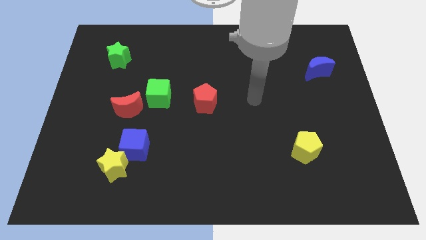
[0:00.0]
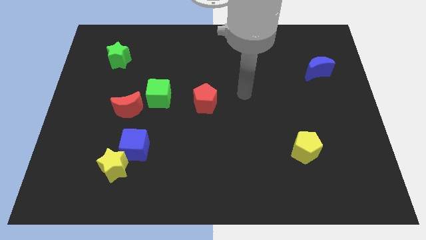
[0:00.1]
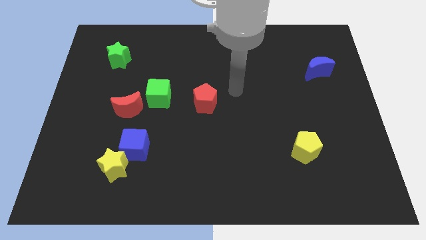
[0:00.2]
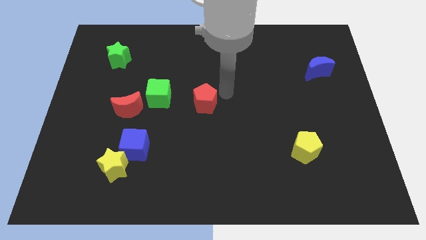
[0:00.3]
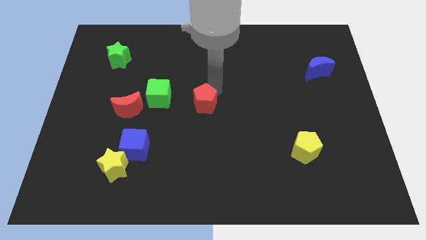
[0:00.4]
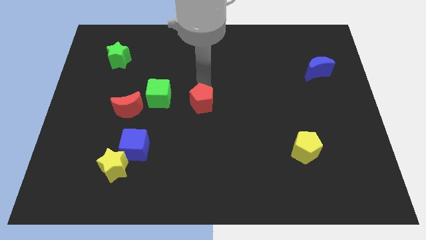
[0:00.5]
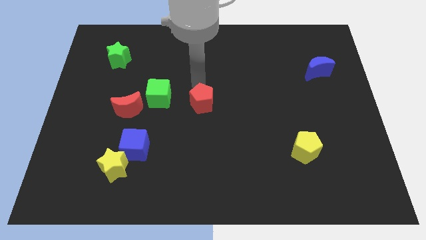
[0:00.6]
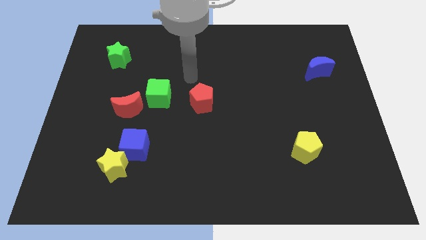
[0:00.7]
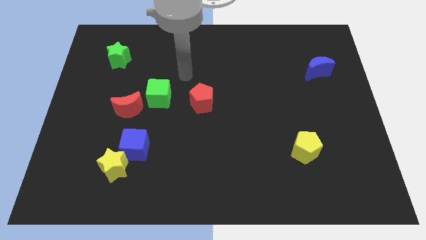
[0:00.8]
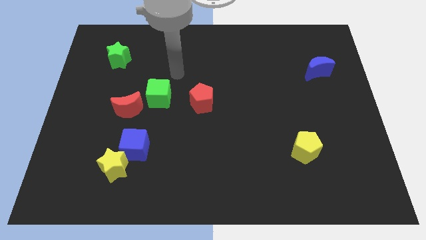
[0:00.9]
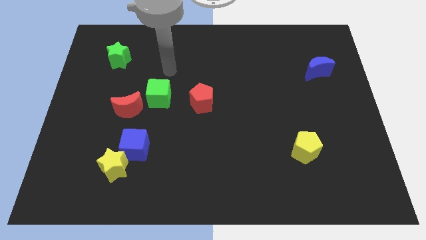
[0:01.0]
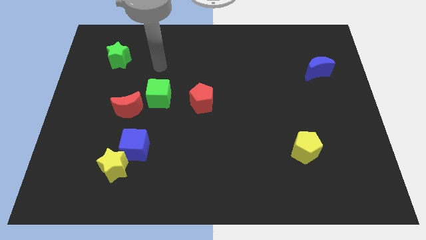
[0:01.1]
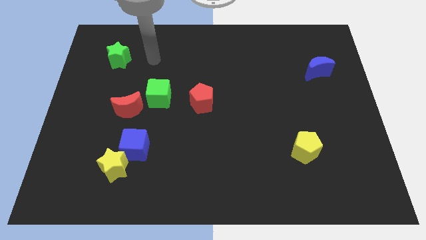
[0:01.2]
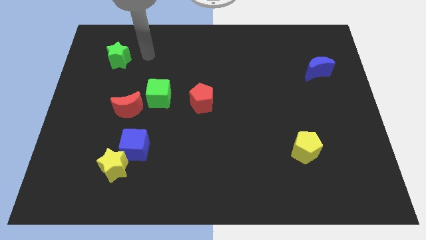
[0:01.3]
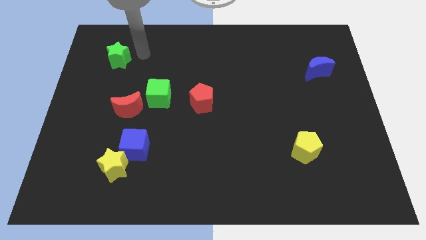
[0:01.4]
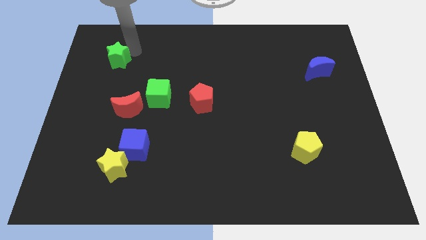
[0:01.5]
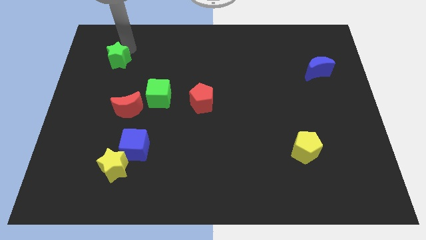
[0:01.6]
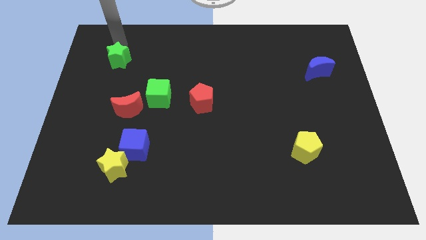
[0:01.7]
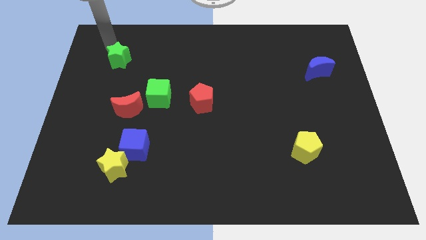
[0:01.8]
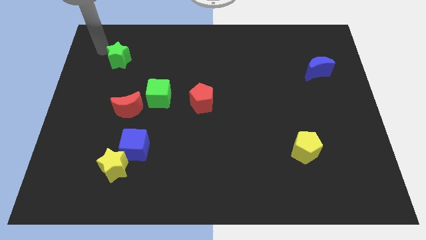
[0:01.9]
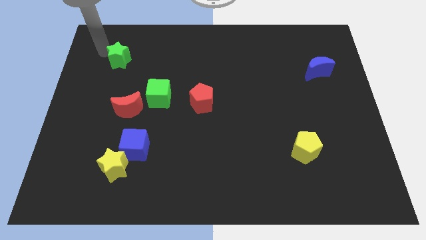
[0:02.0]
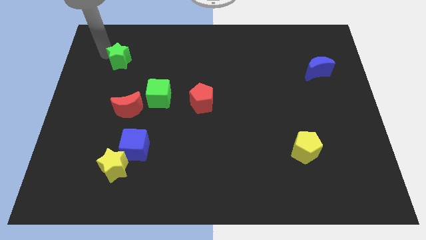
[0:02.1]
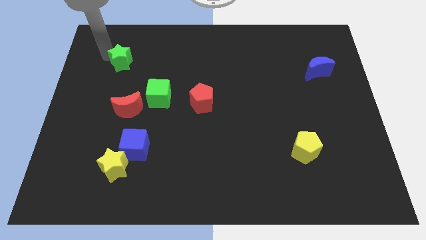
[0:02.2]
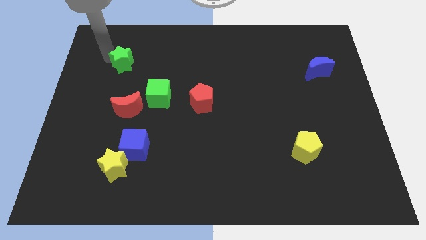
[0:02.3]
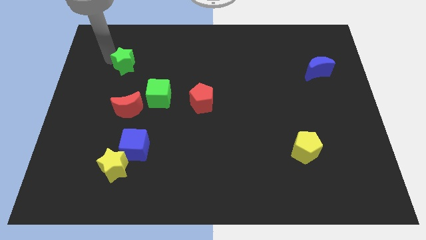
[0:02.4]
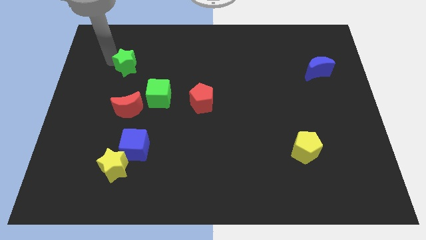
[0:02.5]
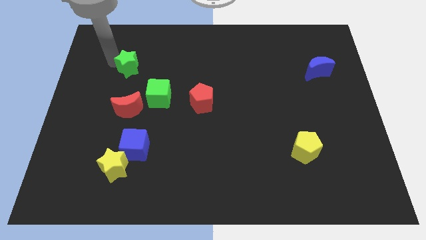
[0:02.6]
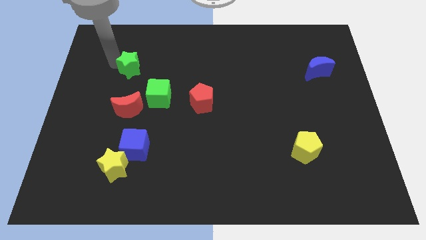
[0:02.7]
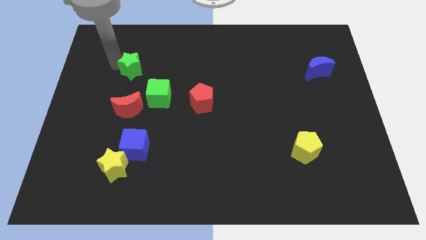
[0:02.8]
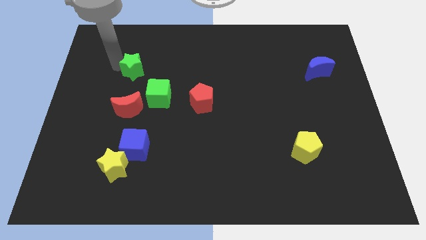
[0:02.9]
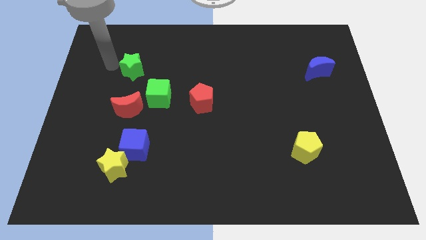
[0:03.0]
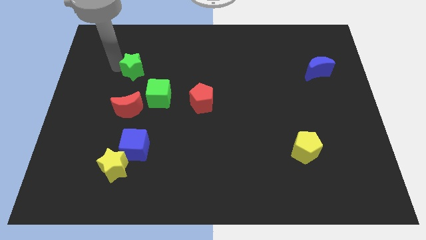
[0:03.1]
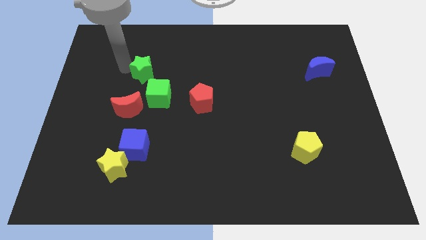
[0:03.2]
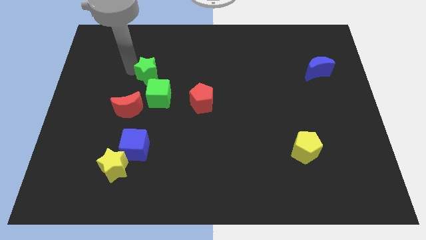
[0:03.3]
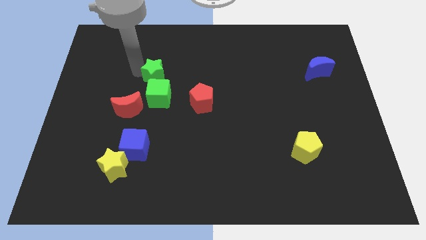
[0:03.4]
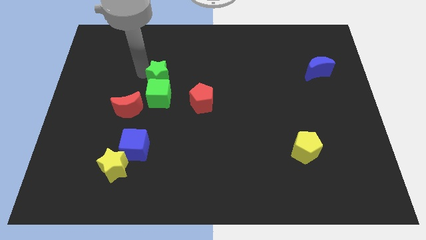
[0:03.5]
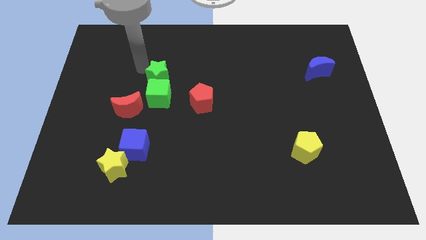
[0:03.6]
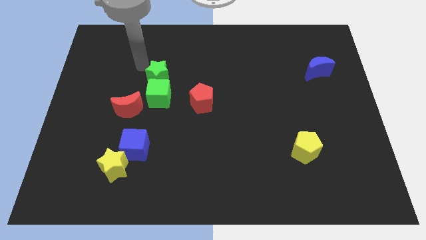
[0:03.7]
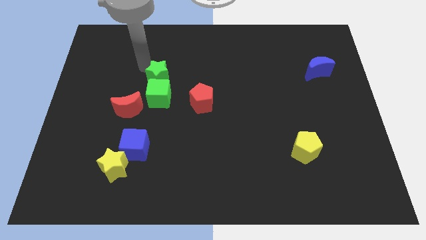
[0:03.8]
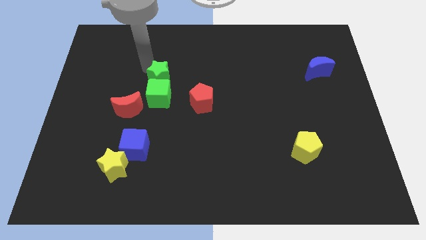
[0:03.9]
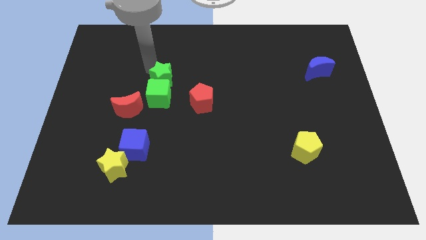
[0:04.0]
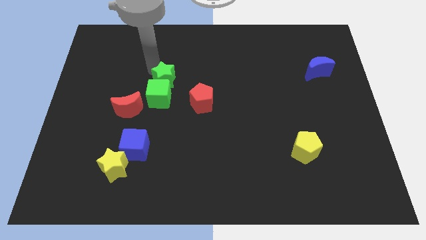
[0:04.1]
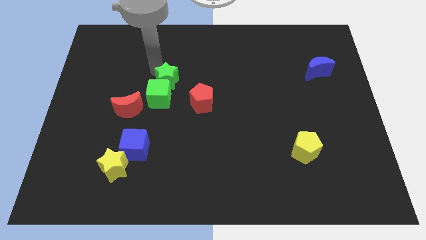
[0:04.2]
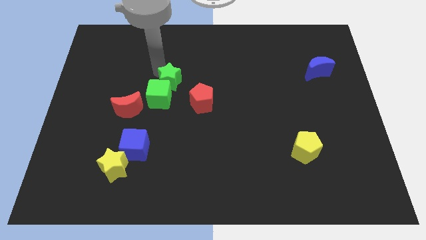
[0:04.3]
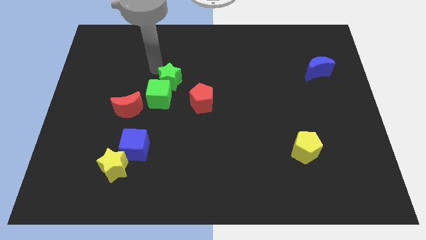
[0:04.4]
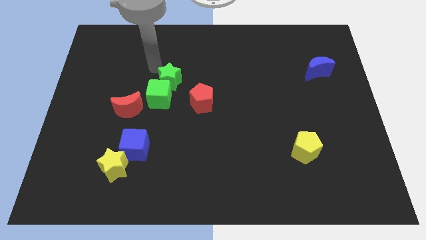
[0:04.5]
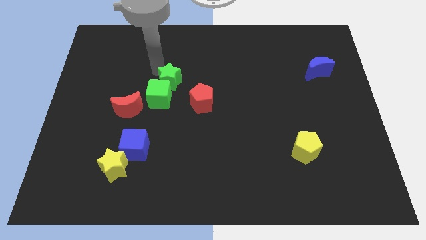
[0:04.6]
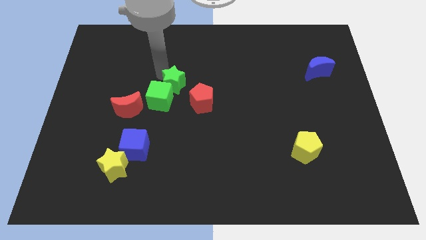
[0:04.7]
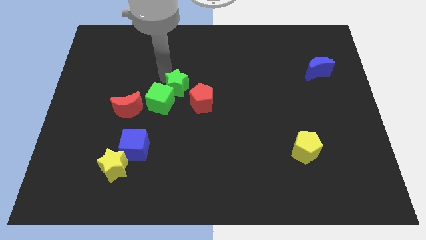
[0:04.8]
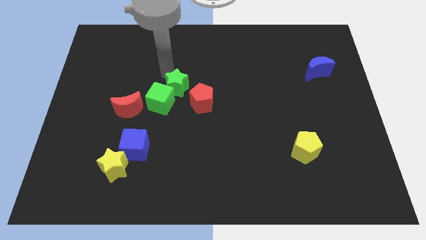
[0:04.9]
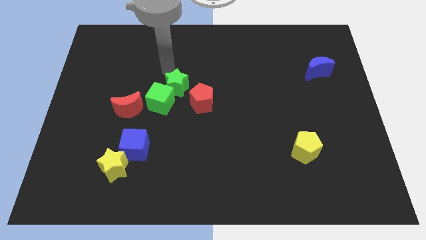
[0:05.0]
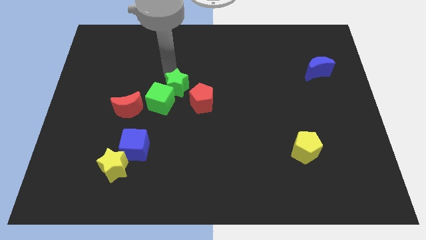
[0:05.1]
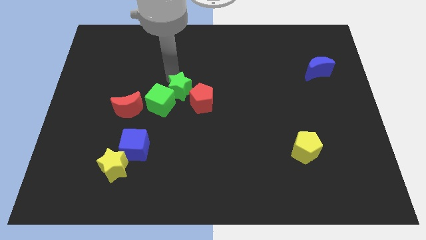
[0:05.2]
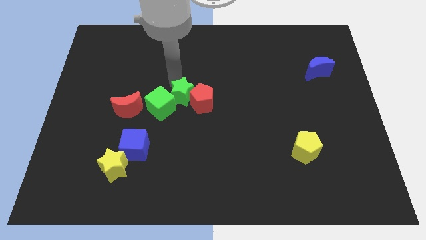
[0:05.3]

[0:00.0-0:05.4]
move the green star diagonally downwards and right

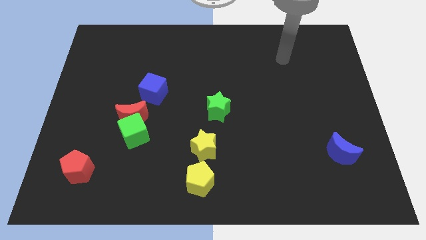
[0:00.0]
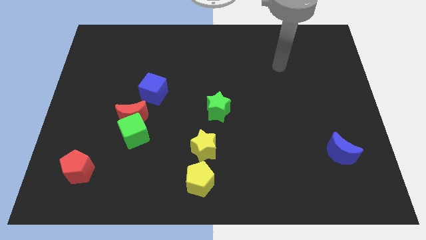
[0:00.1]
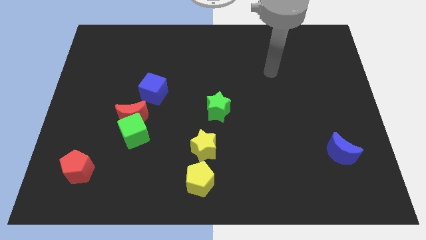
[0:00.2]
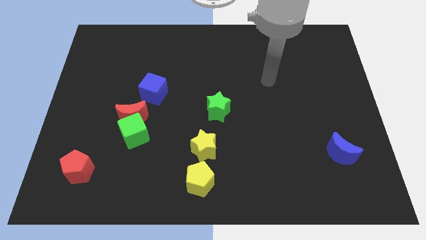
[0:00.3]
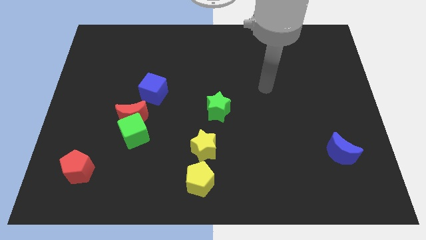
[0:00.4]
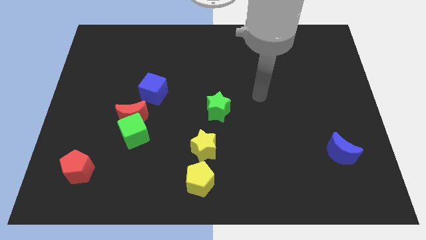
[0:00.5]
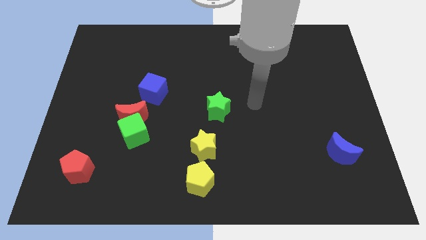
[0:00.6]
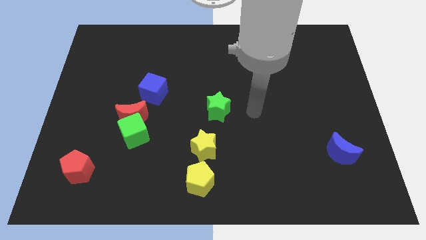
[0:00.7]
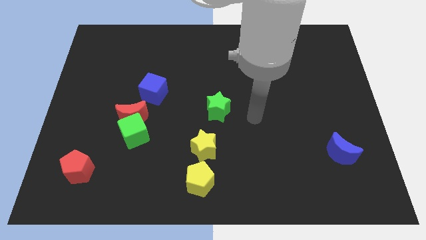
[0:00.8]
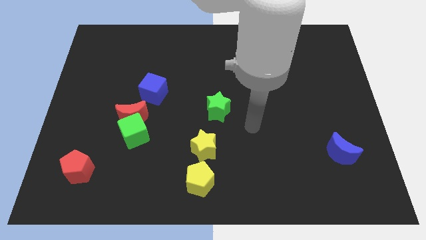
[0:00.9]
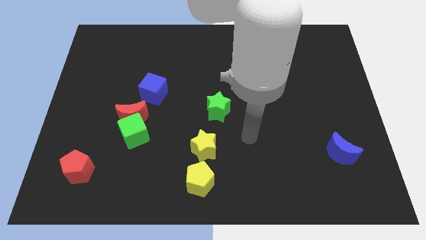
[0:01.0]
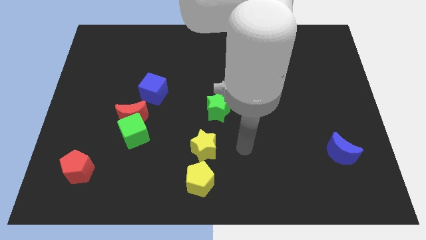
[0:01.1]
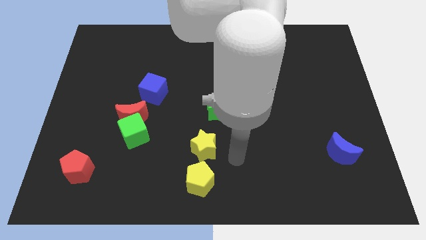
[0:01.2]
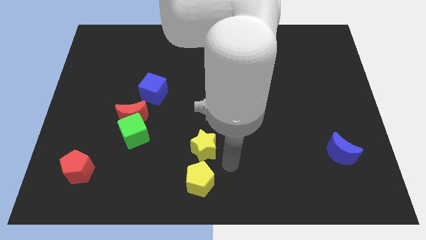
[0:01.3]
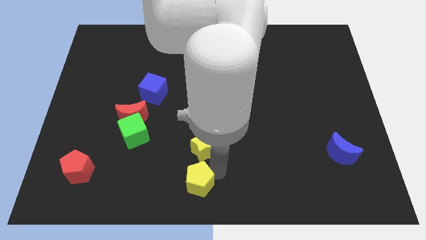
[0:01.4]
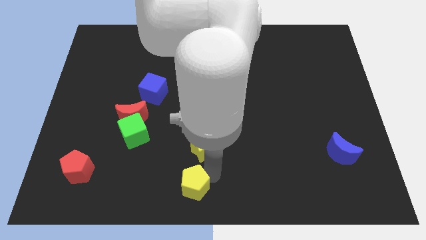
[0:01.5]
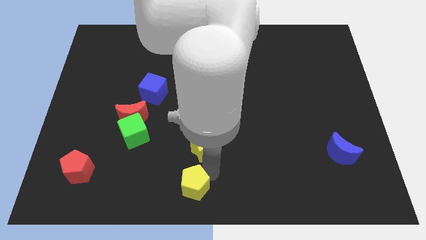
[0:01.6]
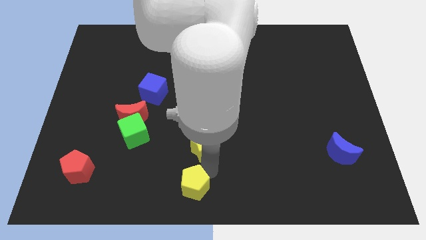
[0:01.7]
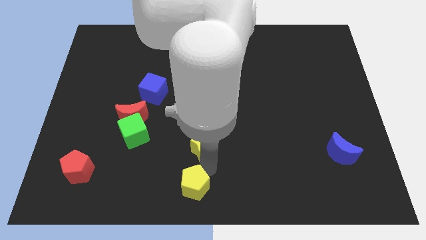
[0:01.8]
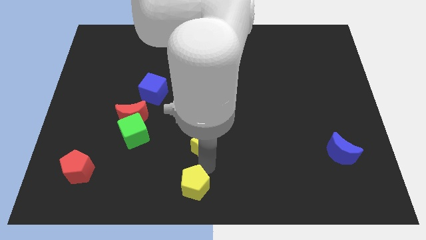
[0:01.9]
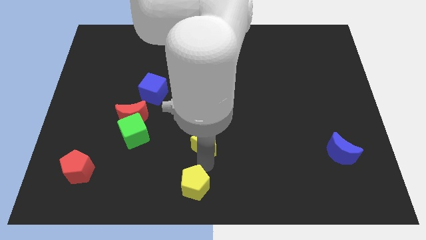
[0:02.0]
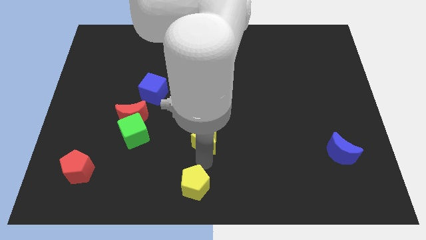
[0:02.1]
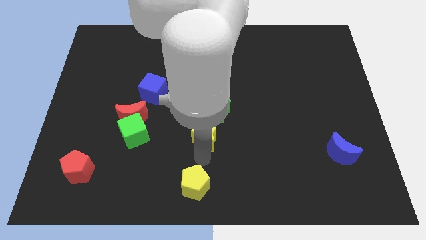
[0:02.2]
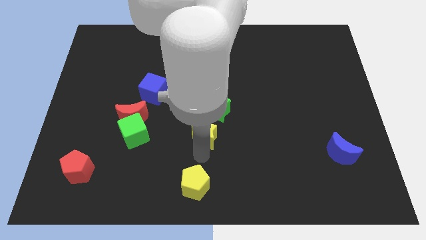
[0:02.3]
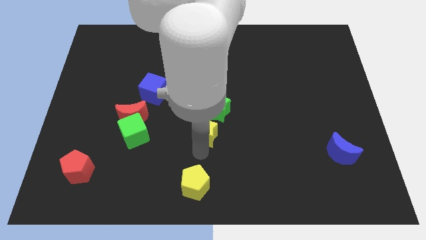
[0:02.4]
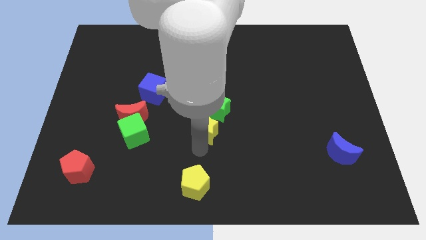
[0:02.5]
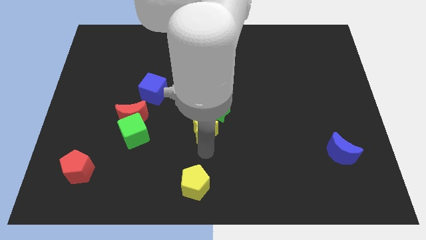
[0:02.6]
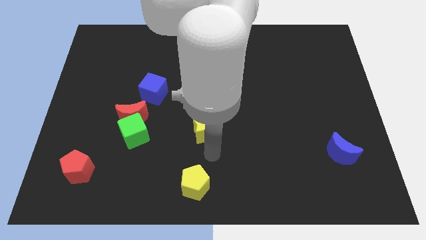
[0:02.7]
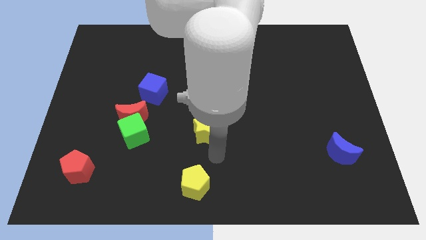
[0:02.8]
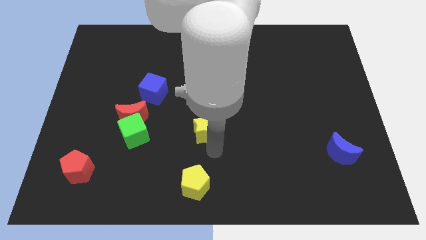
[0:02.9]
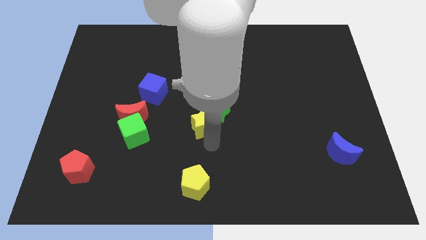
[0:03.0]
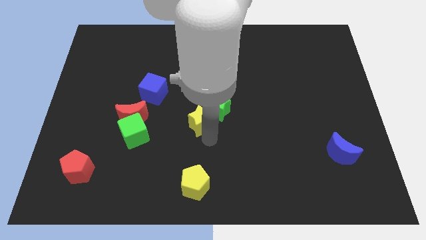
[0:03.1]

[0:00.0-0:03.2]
slightly push the yellow star up
